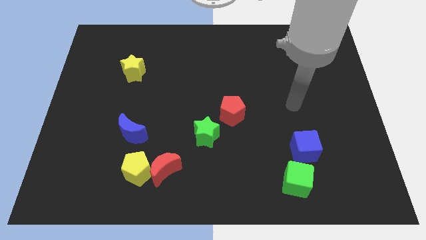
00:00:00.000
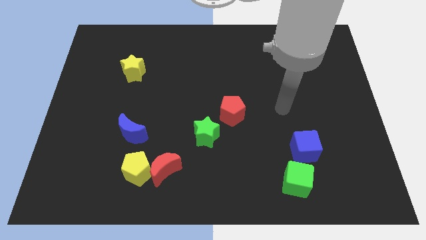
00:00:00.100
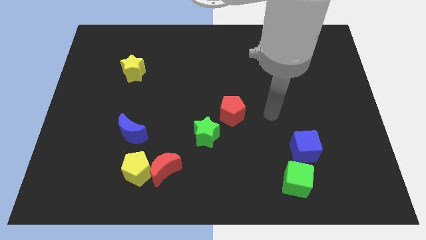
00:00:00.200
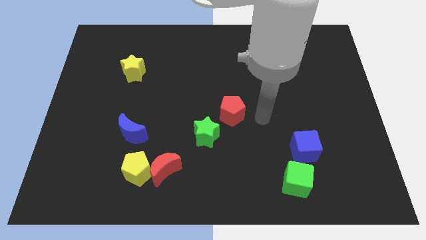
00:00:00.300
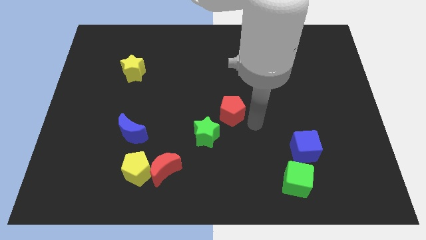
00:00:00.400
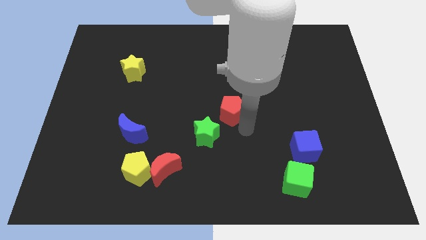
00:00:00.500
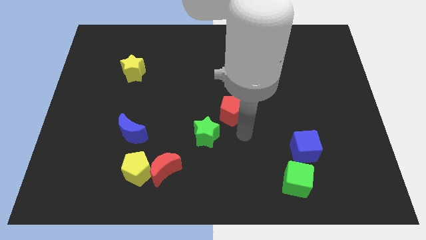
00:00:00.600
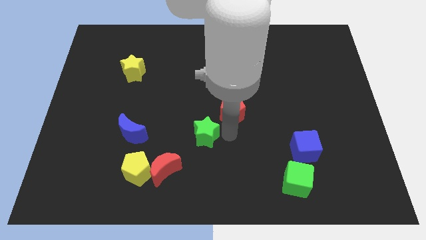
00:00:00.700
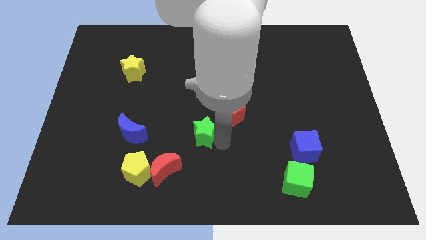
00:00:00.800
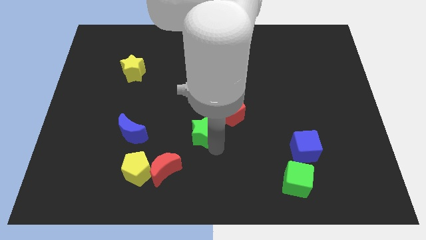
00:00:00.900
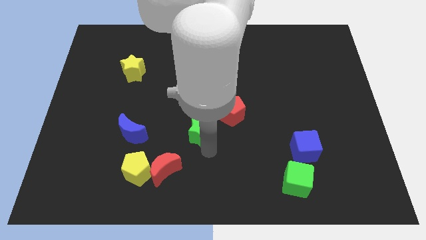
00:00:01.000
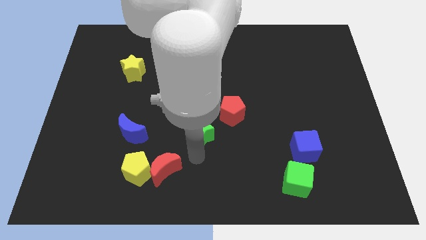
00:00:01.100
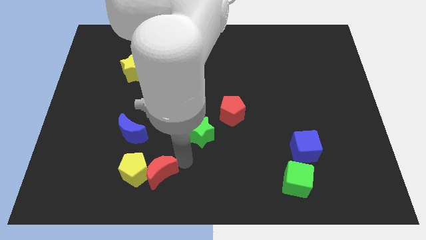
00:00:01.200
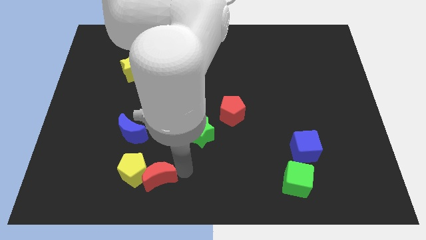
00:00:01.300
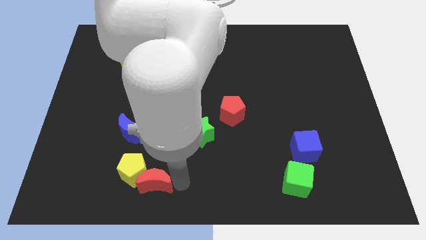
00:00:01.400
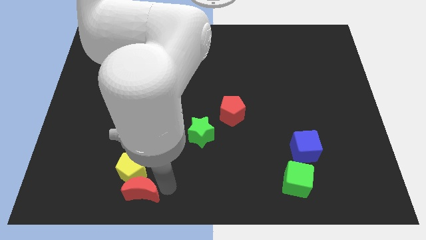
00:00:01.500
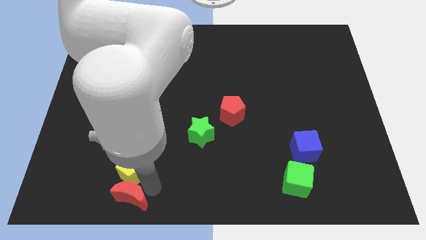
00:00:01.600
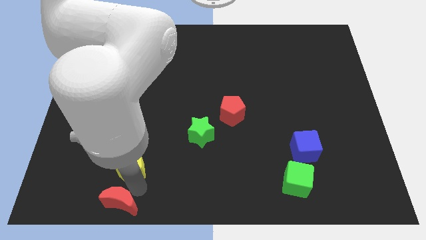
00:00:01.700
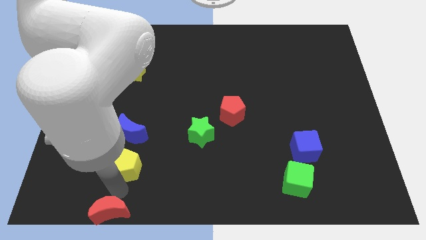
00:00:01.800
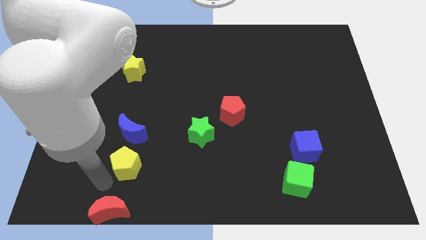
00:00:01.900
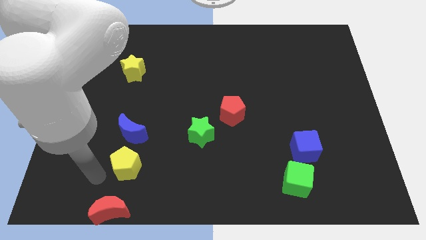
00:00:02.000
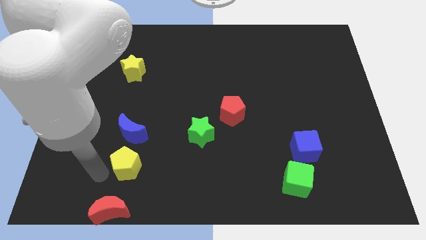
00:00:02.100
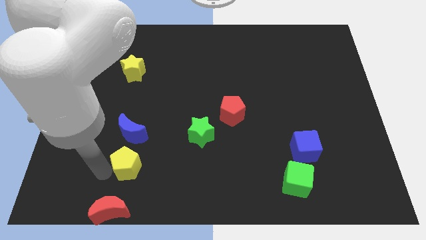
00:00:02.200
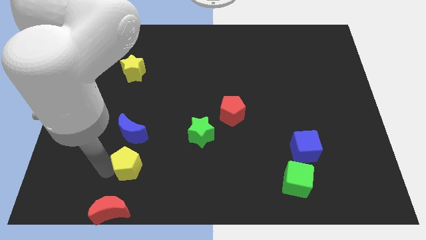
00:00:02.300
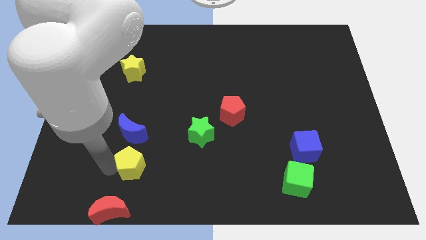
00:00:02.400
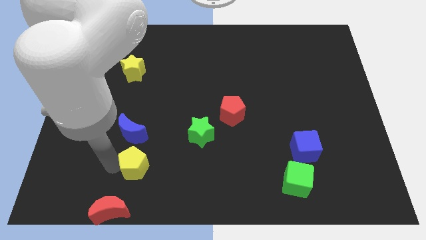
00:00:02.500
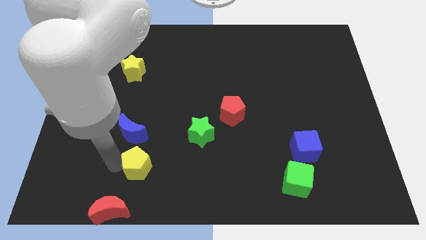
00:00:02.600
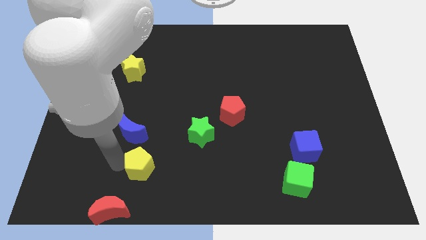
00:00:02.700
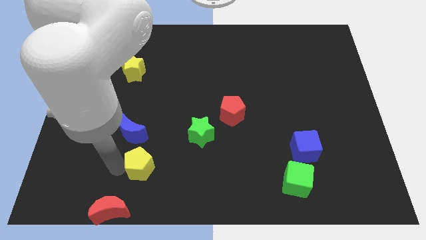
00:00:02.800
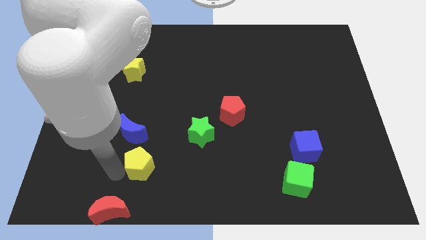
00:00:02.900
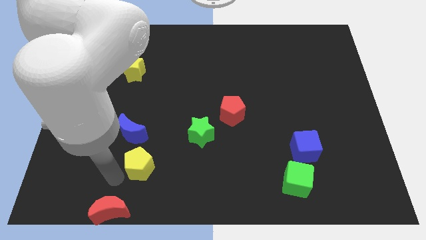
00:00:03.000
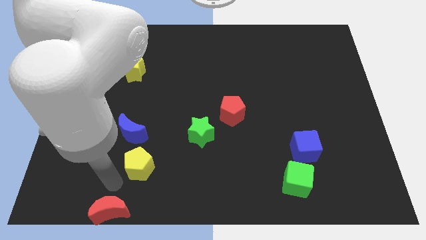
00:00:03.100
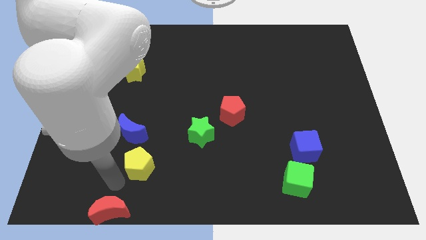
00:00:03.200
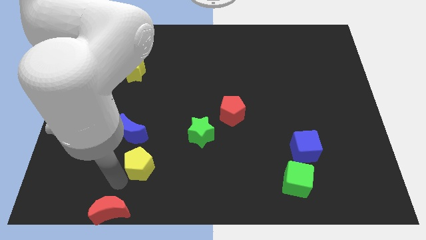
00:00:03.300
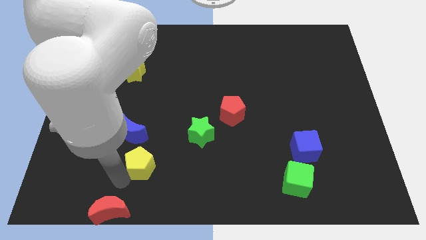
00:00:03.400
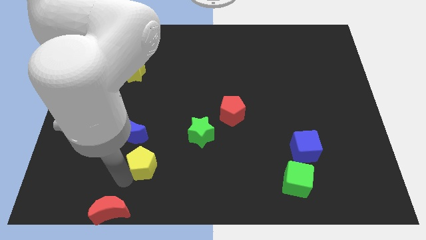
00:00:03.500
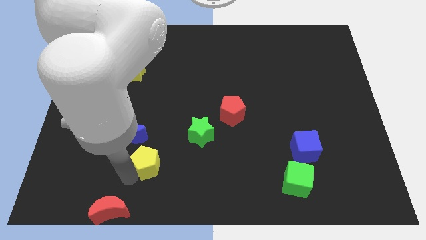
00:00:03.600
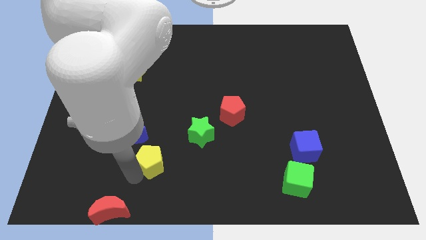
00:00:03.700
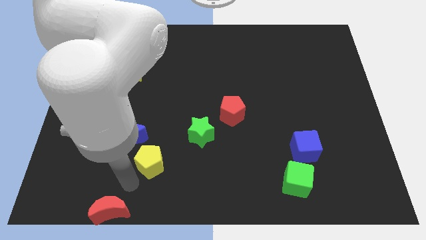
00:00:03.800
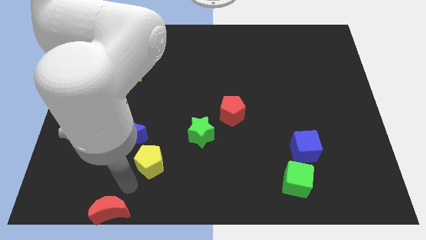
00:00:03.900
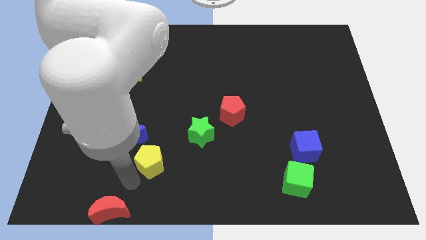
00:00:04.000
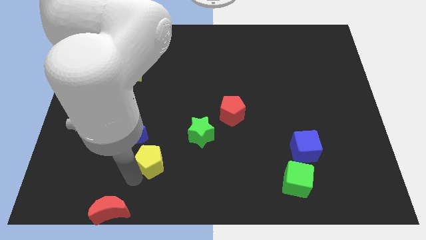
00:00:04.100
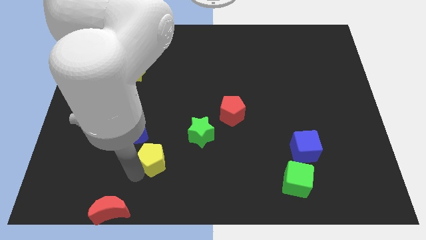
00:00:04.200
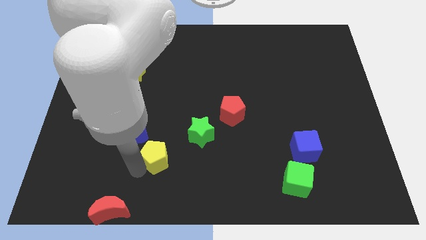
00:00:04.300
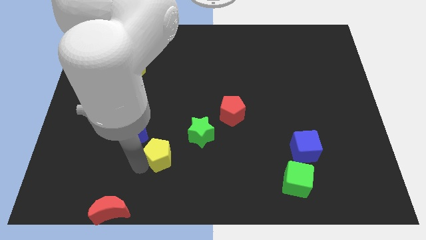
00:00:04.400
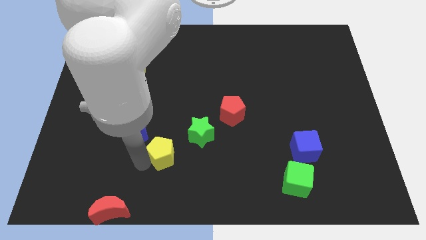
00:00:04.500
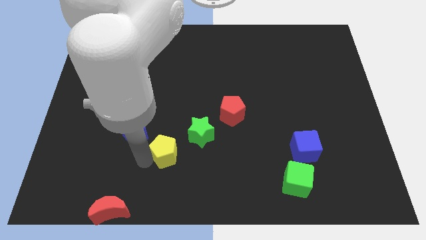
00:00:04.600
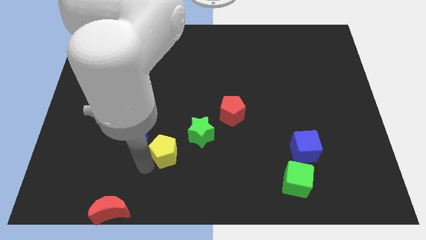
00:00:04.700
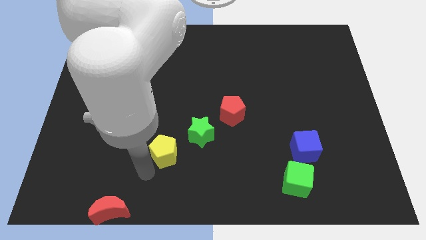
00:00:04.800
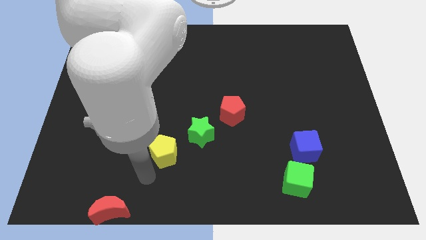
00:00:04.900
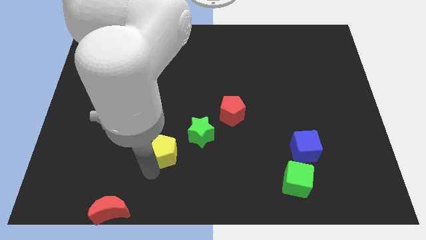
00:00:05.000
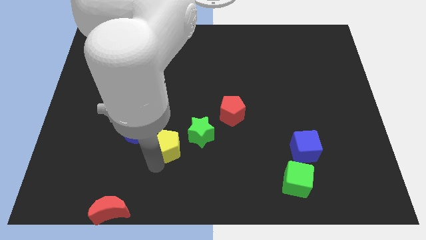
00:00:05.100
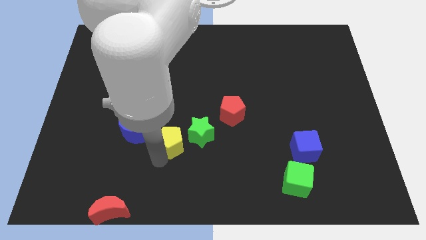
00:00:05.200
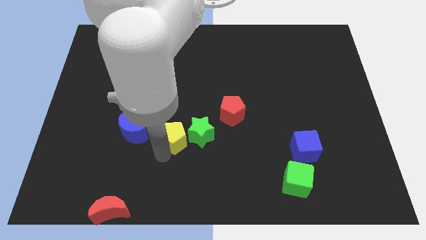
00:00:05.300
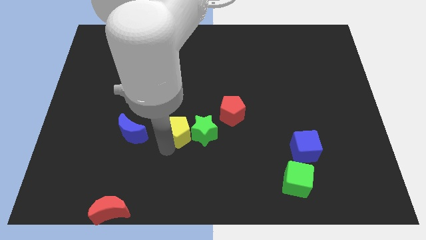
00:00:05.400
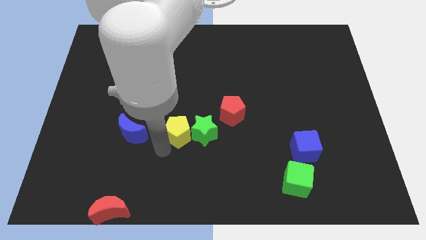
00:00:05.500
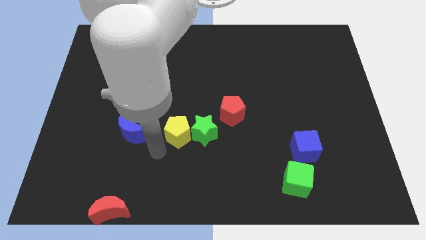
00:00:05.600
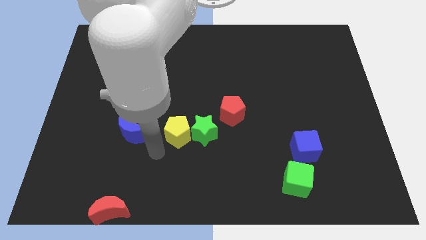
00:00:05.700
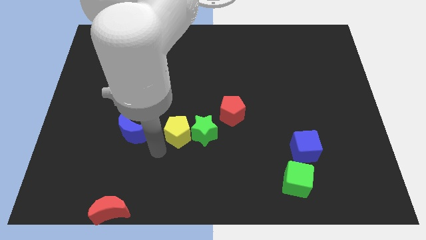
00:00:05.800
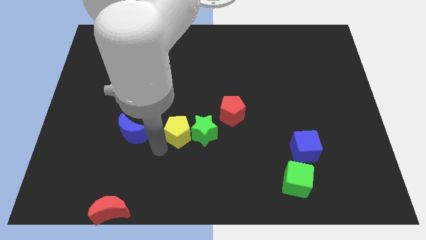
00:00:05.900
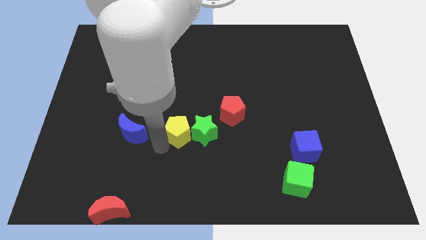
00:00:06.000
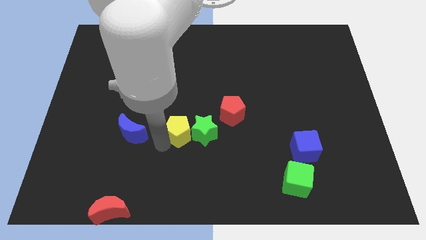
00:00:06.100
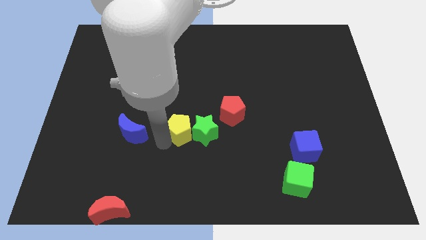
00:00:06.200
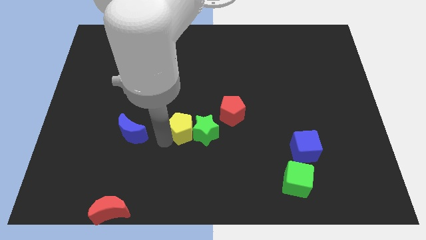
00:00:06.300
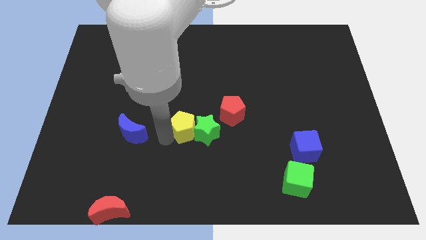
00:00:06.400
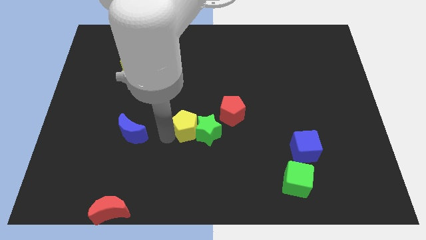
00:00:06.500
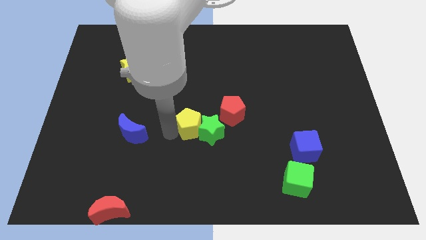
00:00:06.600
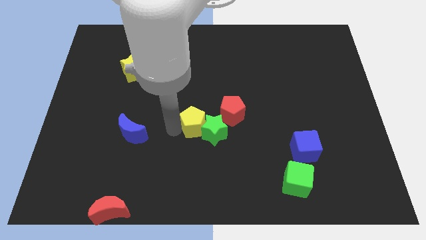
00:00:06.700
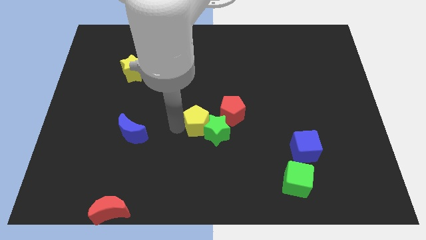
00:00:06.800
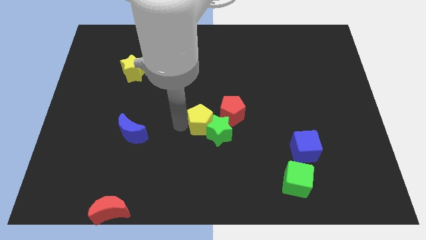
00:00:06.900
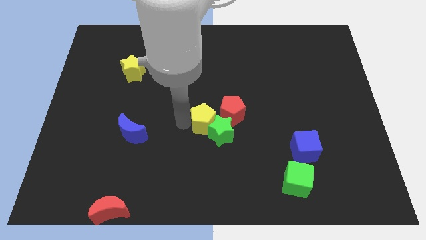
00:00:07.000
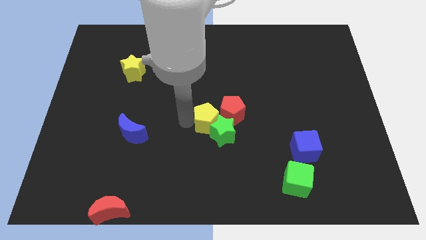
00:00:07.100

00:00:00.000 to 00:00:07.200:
push the yellow pentagon next to the red pentagon

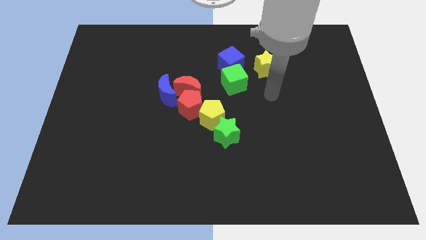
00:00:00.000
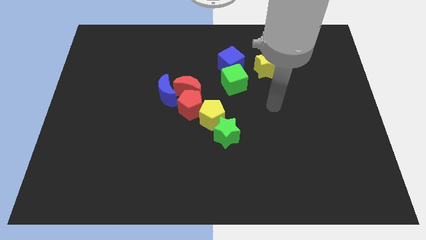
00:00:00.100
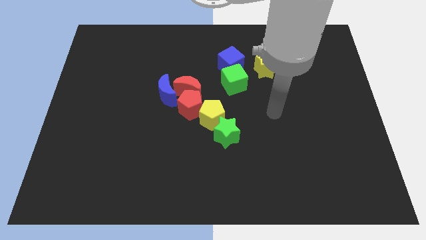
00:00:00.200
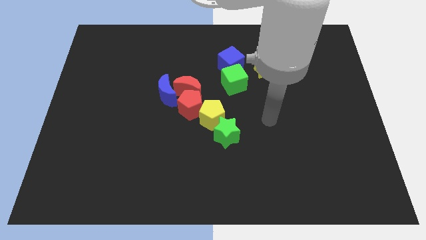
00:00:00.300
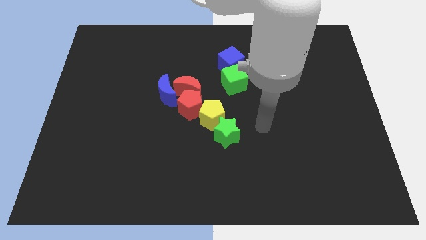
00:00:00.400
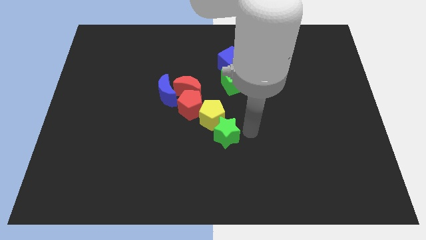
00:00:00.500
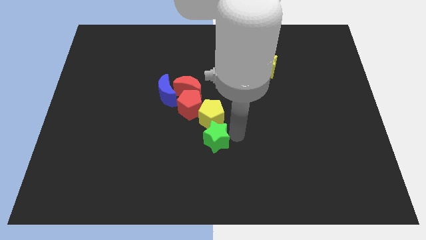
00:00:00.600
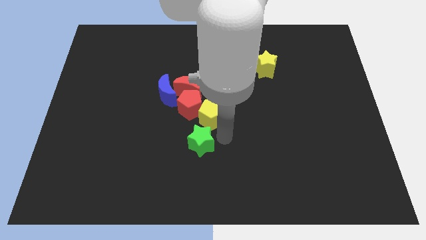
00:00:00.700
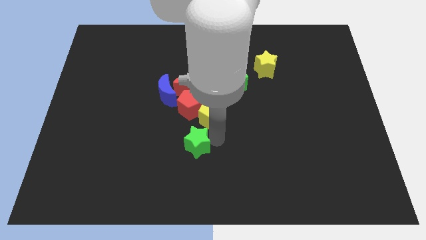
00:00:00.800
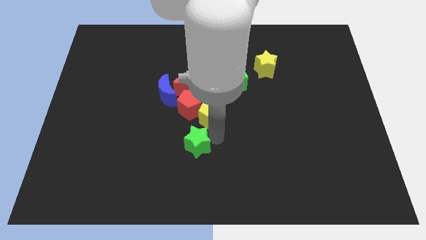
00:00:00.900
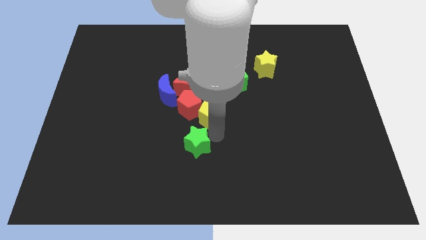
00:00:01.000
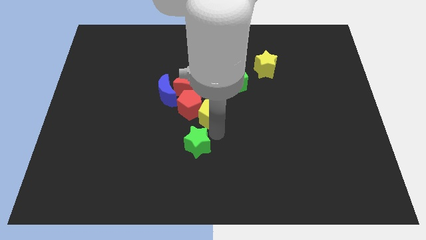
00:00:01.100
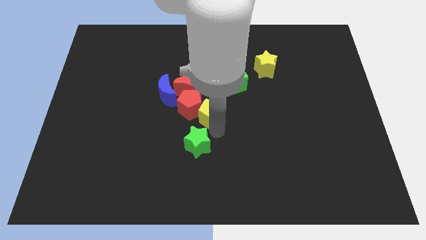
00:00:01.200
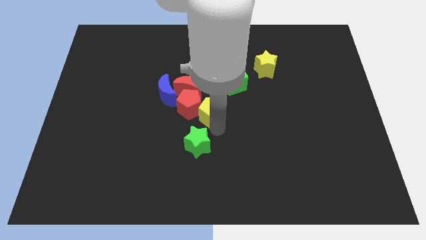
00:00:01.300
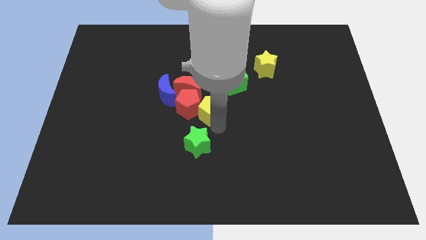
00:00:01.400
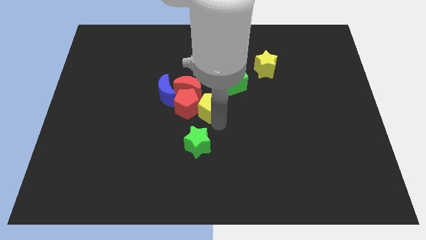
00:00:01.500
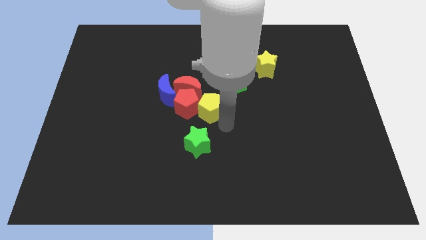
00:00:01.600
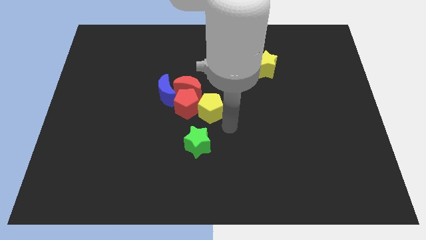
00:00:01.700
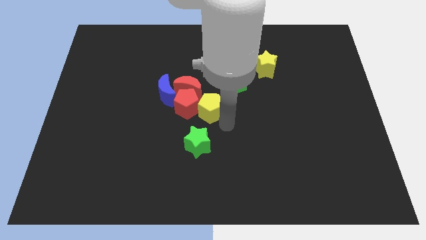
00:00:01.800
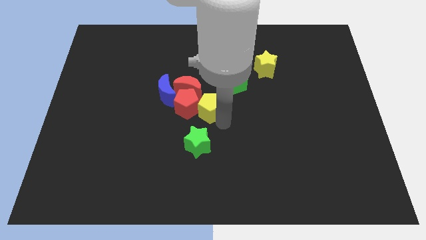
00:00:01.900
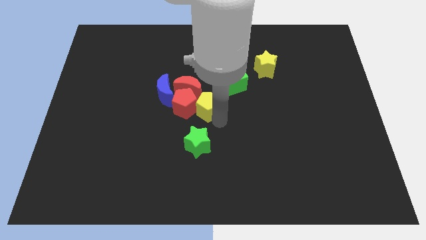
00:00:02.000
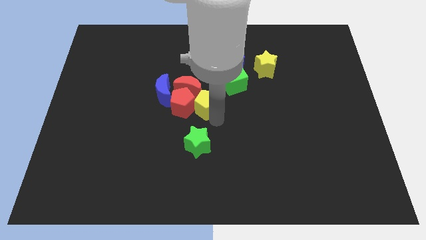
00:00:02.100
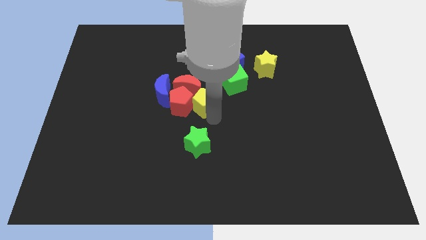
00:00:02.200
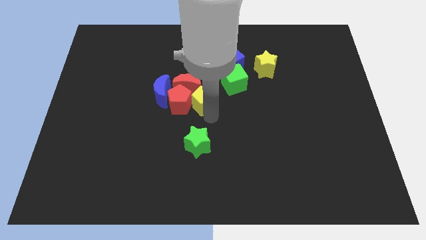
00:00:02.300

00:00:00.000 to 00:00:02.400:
push the yellow pentagon next to the red moon
